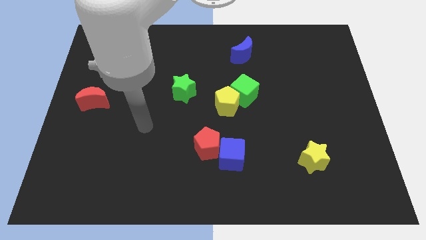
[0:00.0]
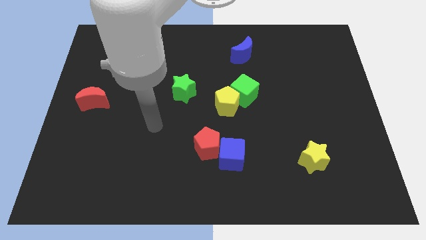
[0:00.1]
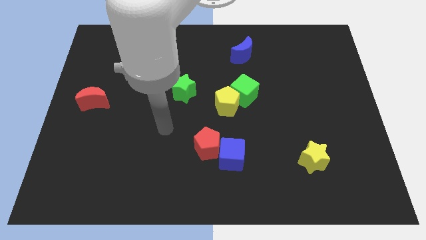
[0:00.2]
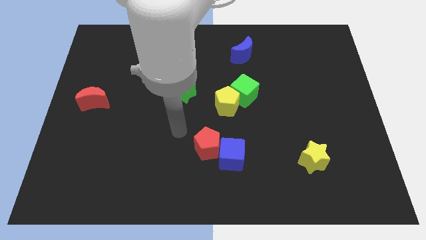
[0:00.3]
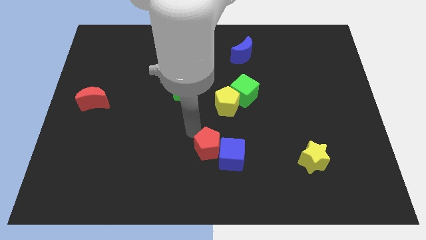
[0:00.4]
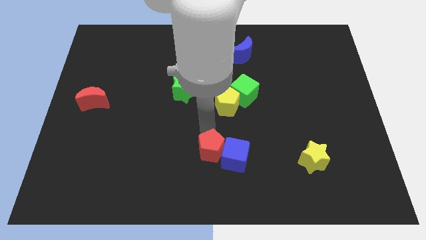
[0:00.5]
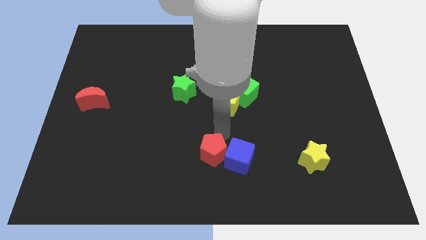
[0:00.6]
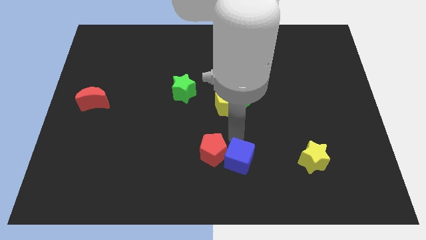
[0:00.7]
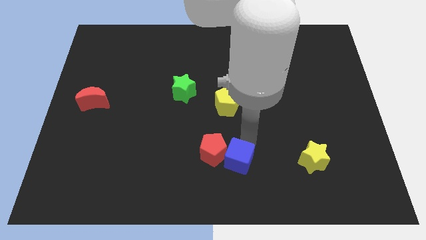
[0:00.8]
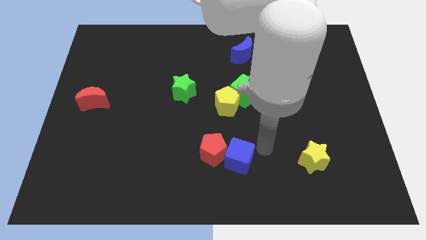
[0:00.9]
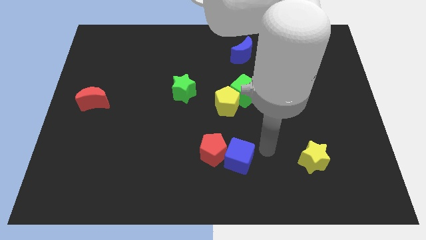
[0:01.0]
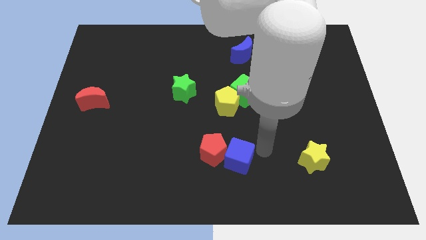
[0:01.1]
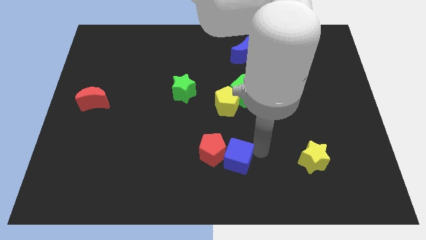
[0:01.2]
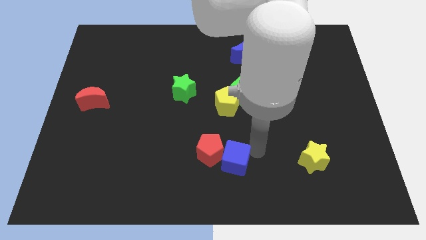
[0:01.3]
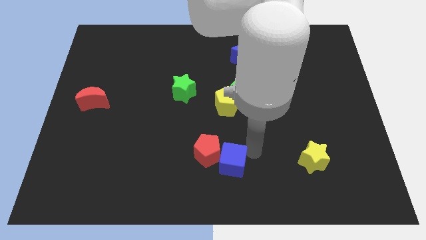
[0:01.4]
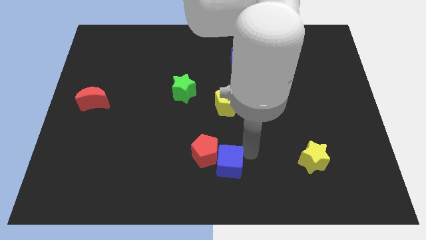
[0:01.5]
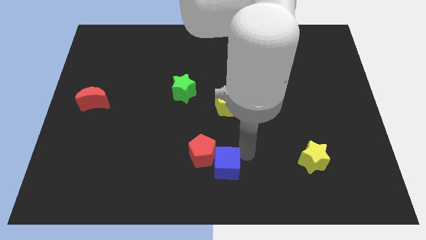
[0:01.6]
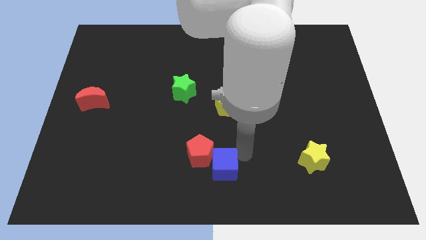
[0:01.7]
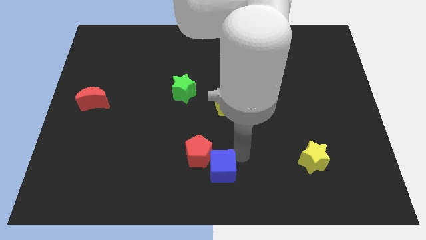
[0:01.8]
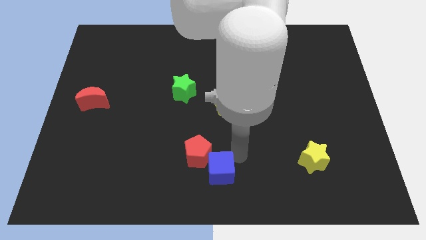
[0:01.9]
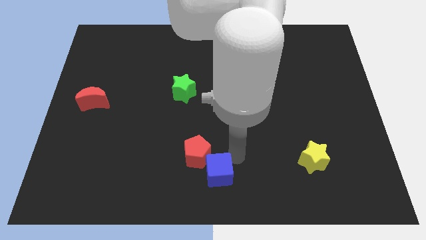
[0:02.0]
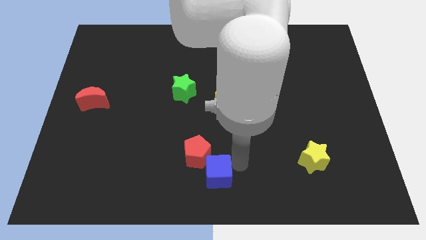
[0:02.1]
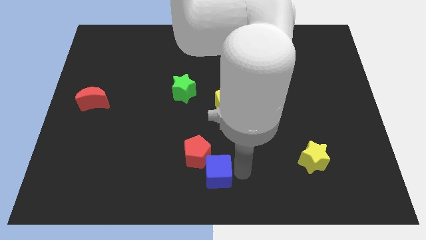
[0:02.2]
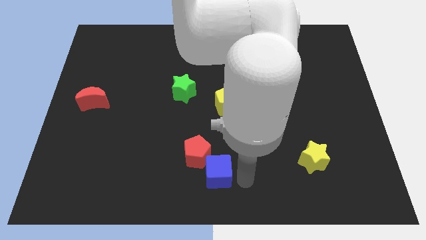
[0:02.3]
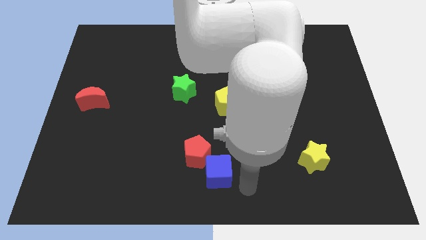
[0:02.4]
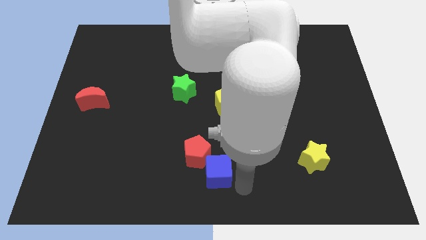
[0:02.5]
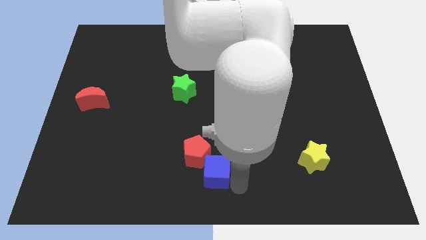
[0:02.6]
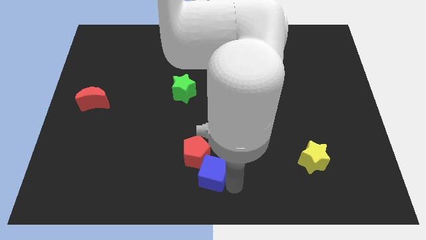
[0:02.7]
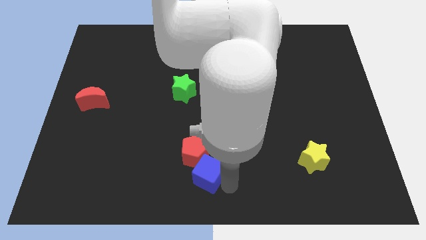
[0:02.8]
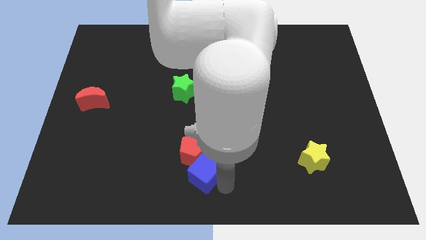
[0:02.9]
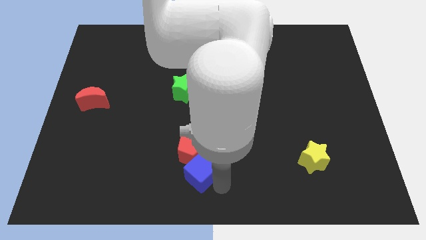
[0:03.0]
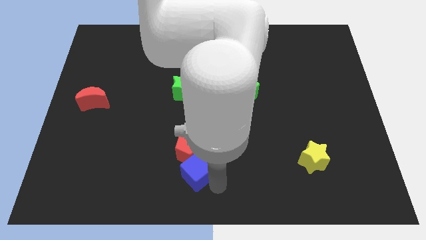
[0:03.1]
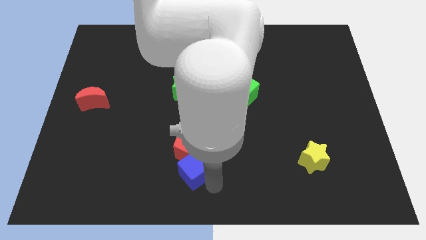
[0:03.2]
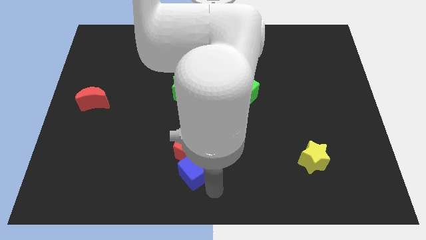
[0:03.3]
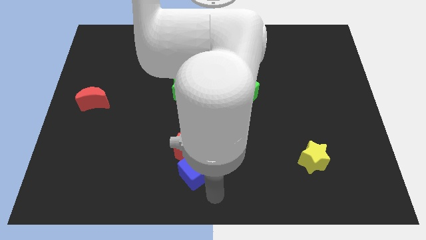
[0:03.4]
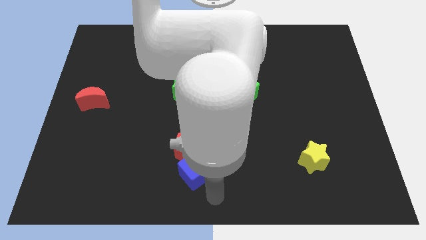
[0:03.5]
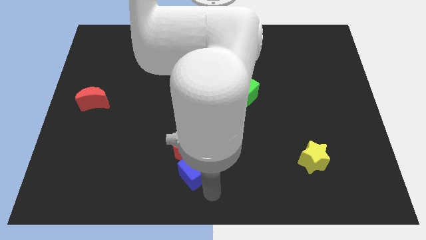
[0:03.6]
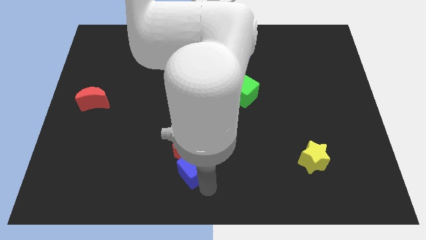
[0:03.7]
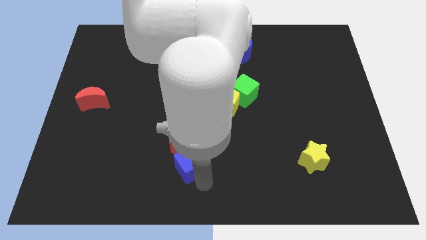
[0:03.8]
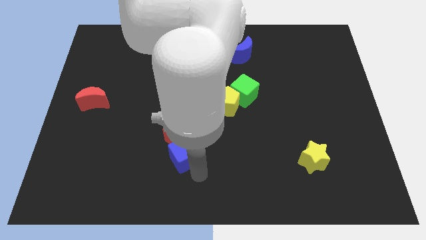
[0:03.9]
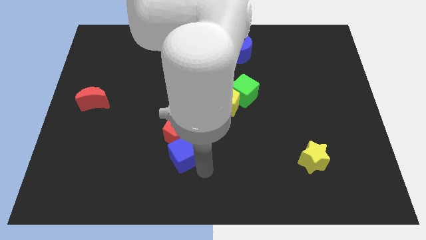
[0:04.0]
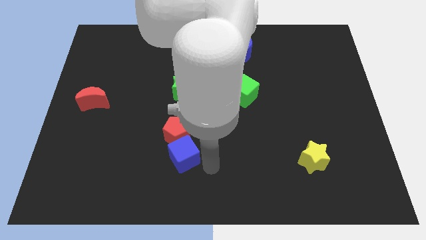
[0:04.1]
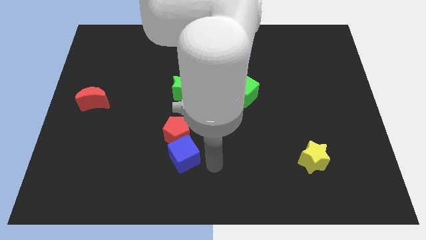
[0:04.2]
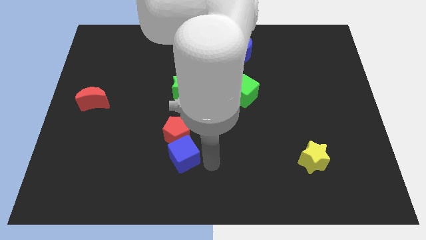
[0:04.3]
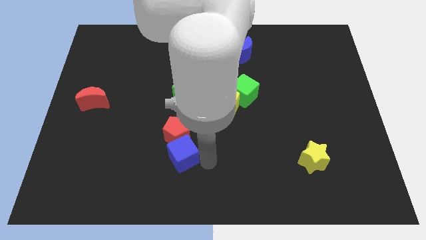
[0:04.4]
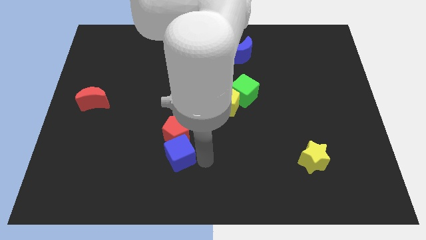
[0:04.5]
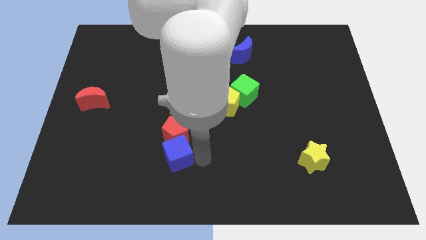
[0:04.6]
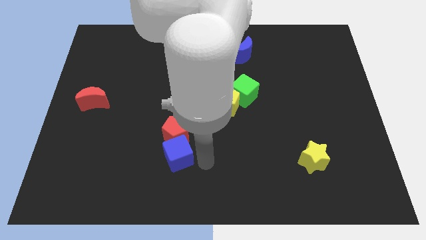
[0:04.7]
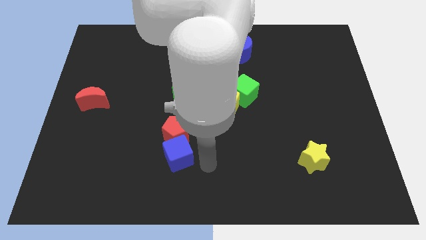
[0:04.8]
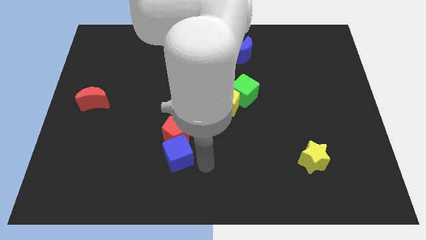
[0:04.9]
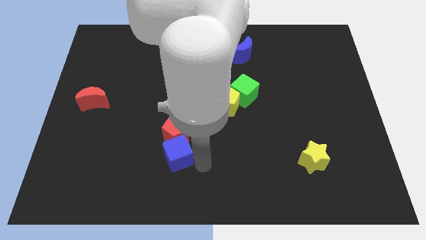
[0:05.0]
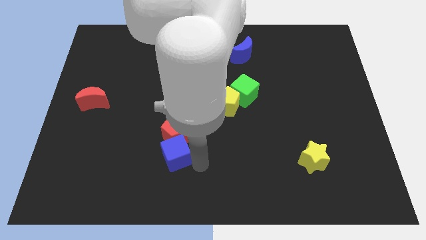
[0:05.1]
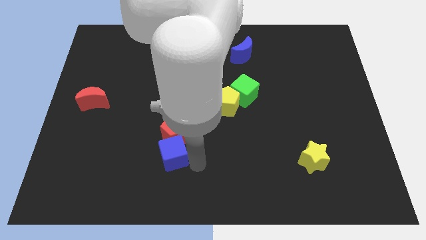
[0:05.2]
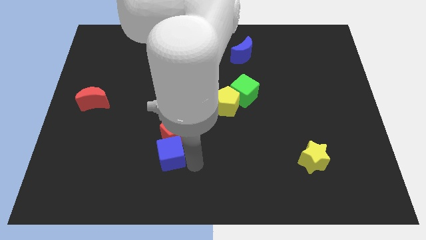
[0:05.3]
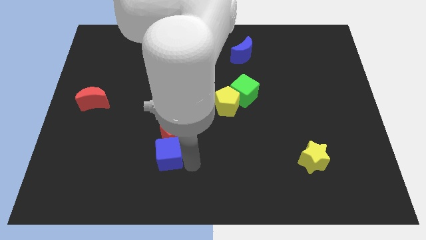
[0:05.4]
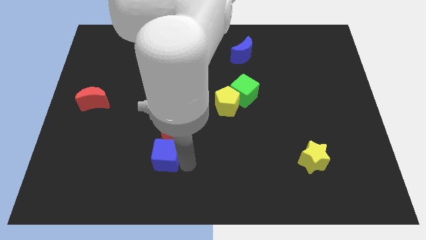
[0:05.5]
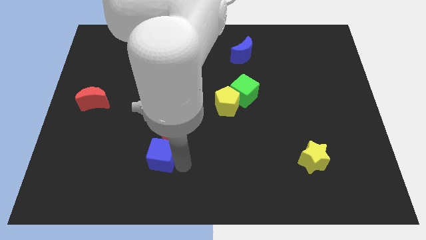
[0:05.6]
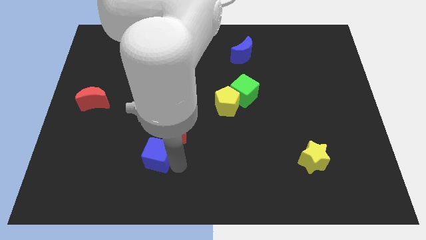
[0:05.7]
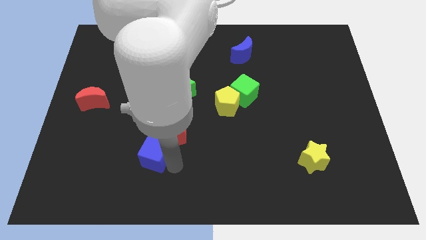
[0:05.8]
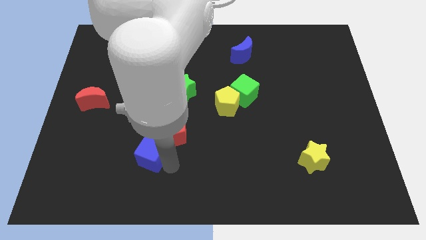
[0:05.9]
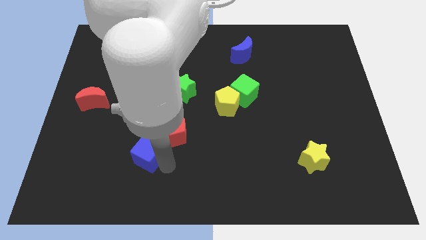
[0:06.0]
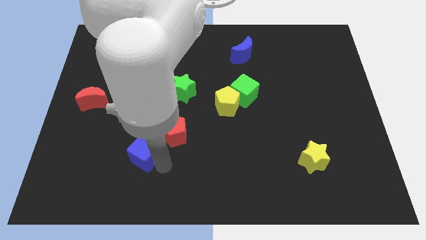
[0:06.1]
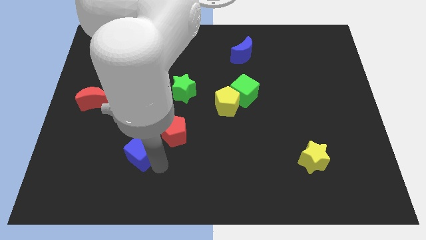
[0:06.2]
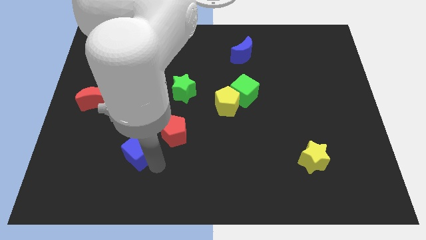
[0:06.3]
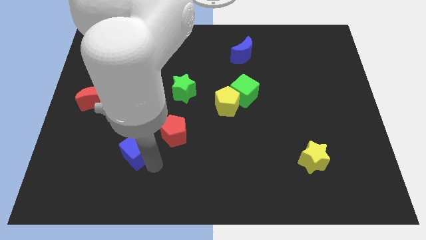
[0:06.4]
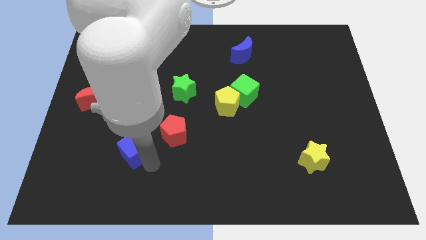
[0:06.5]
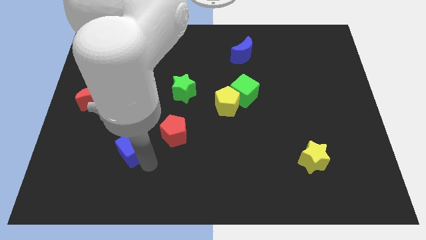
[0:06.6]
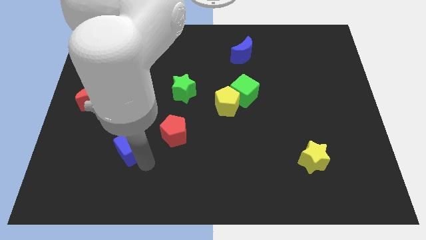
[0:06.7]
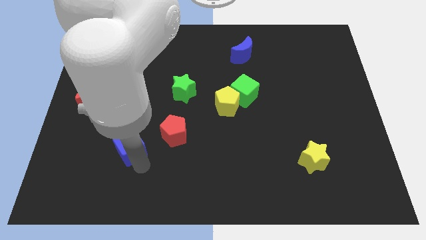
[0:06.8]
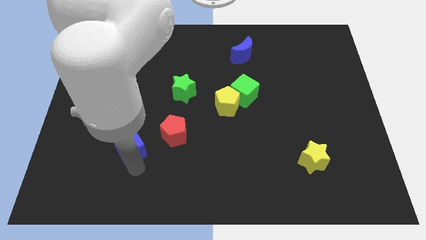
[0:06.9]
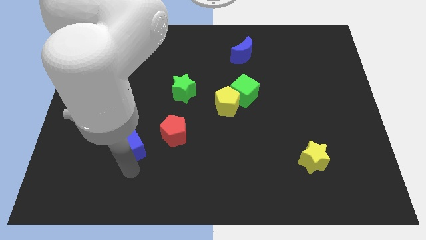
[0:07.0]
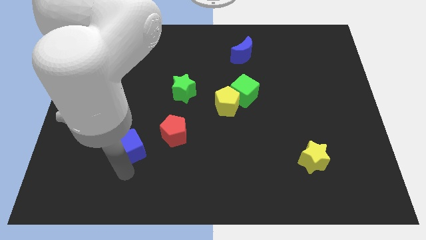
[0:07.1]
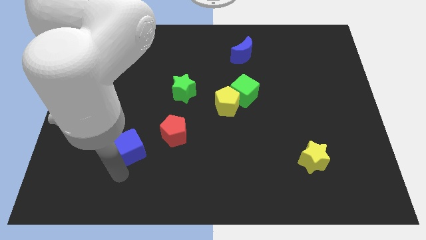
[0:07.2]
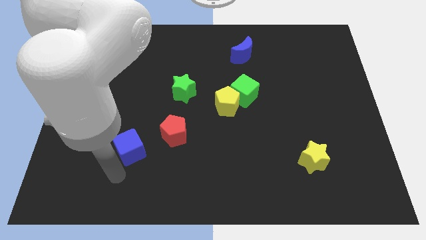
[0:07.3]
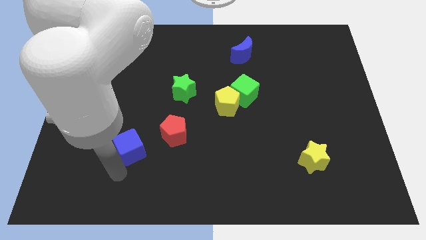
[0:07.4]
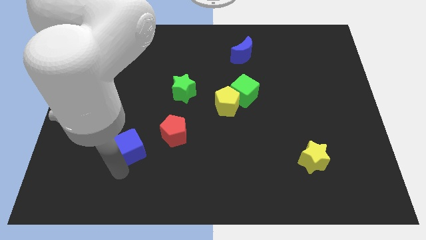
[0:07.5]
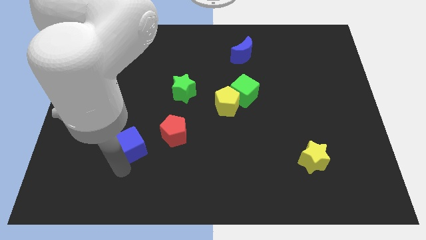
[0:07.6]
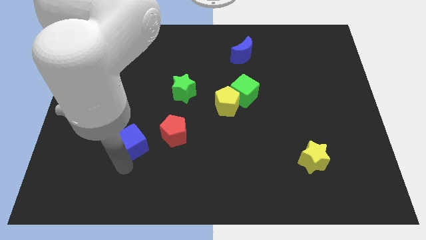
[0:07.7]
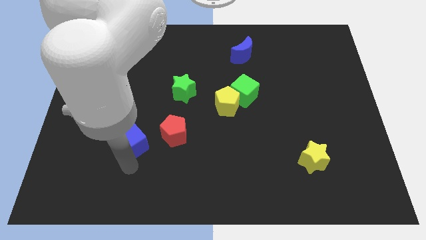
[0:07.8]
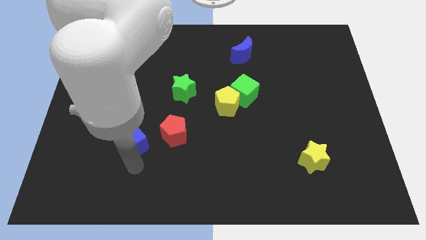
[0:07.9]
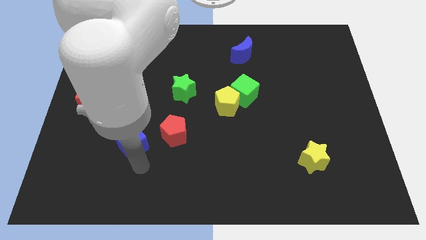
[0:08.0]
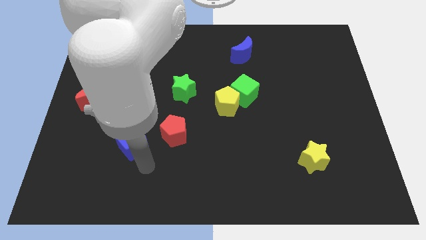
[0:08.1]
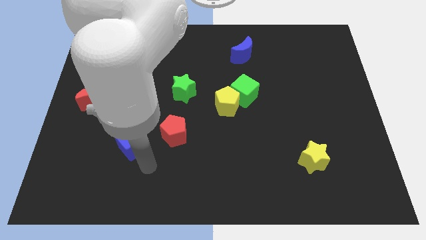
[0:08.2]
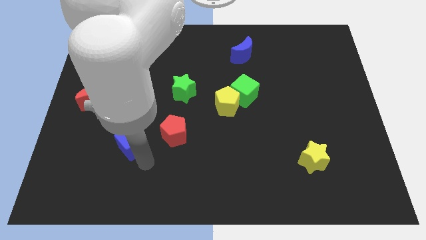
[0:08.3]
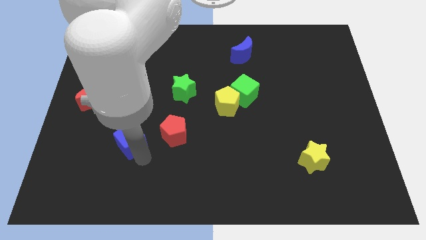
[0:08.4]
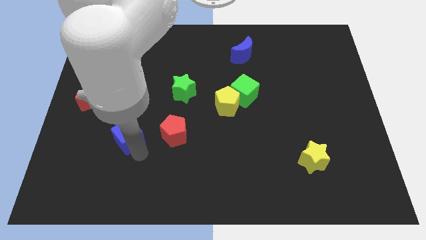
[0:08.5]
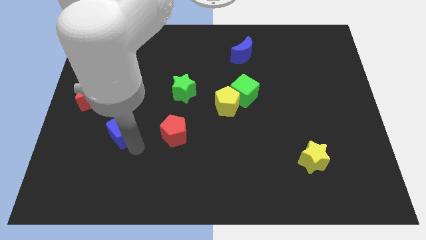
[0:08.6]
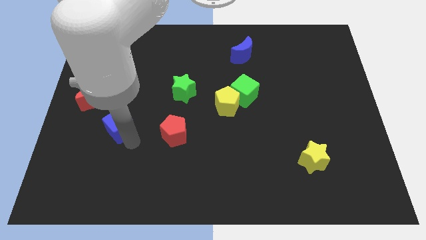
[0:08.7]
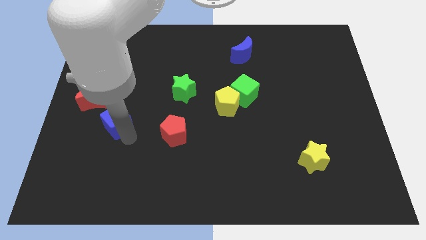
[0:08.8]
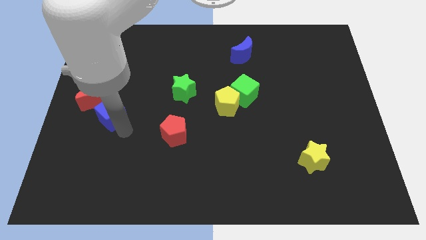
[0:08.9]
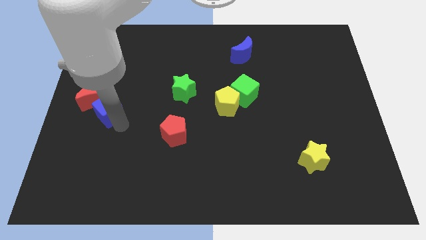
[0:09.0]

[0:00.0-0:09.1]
slide the blue cube to the red moon
